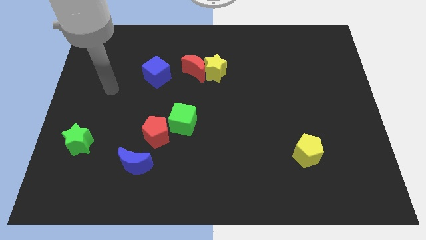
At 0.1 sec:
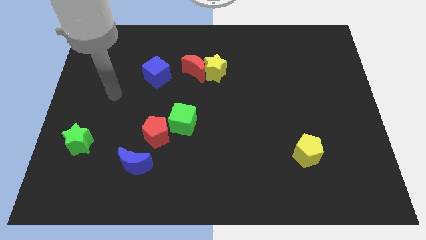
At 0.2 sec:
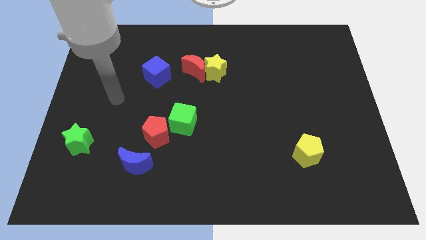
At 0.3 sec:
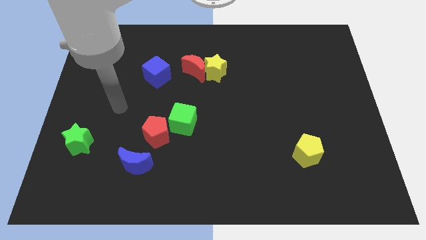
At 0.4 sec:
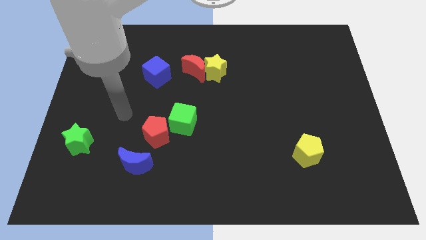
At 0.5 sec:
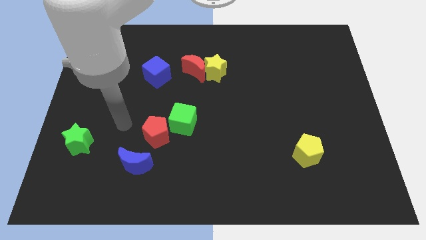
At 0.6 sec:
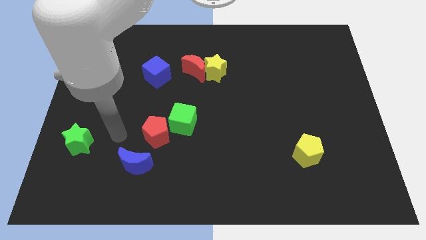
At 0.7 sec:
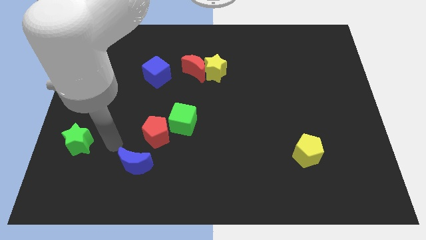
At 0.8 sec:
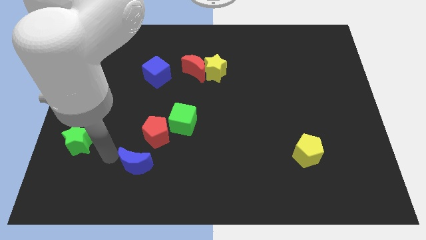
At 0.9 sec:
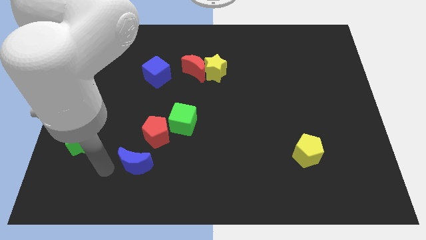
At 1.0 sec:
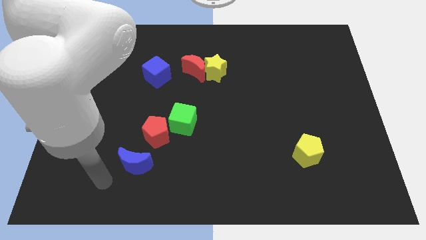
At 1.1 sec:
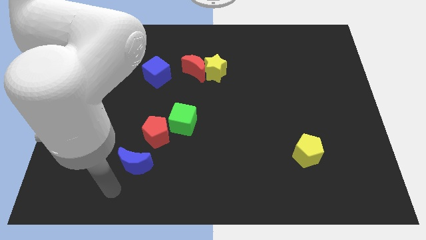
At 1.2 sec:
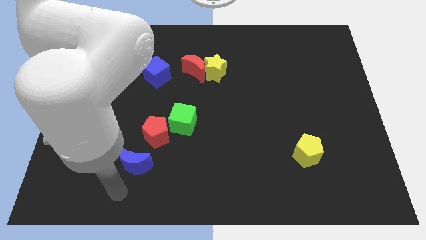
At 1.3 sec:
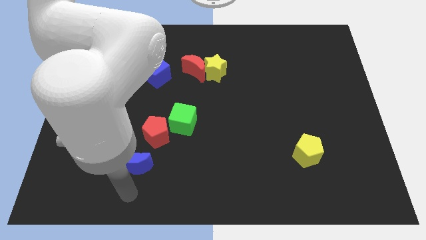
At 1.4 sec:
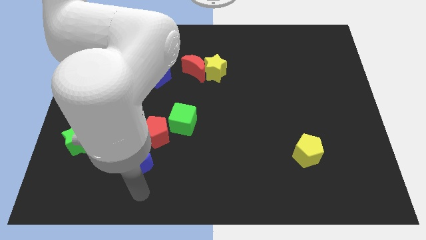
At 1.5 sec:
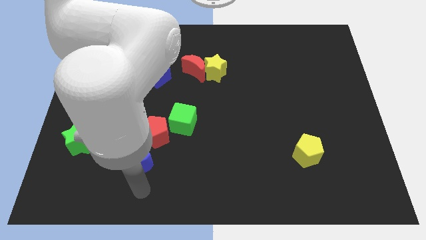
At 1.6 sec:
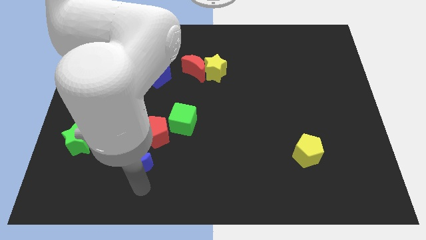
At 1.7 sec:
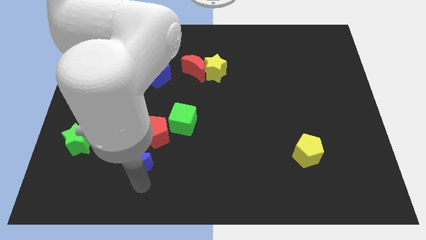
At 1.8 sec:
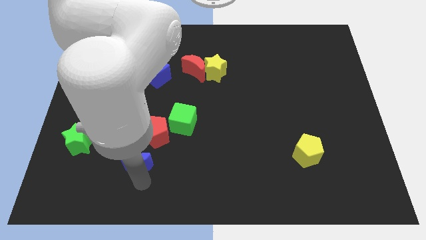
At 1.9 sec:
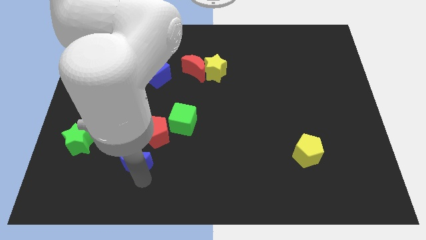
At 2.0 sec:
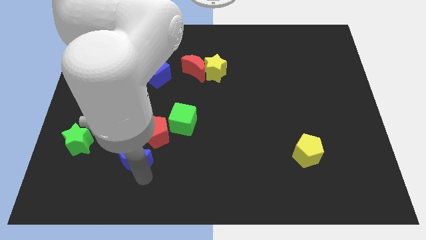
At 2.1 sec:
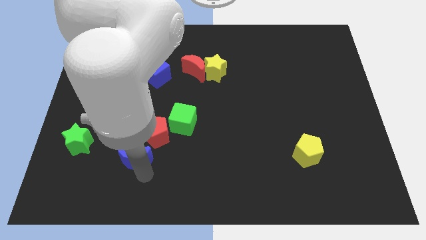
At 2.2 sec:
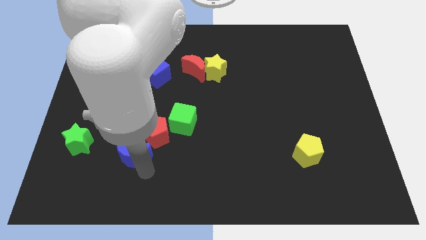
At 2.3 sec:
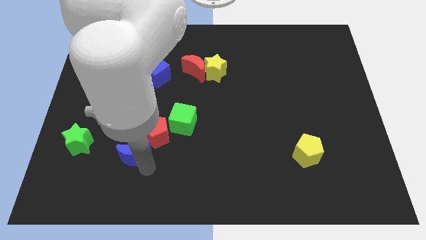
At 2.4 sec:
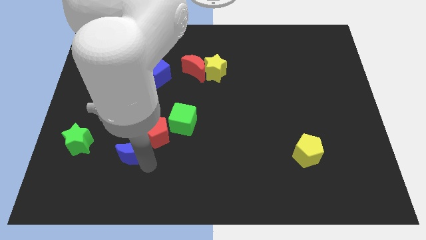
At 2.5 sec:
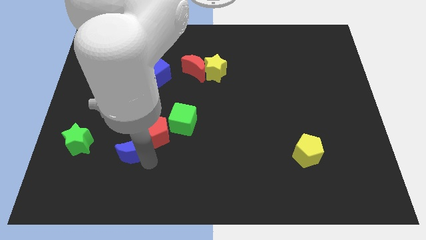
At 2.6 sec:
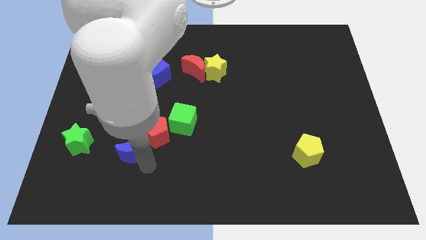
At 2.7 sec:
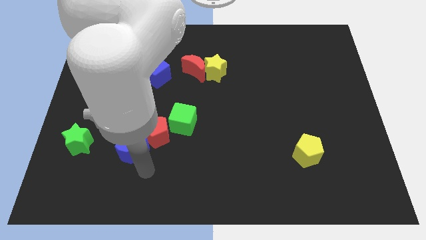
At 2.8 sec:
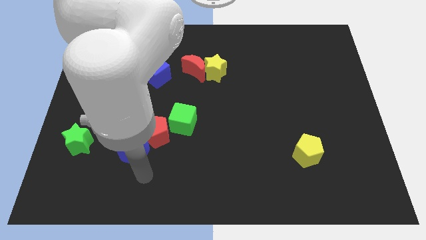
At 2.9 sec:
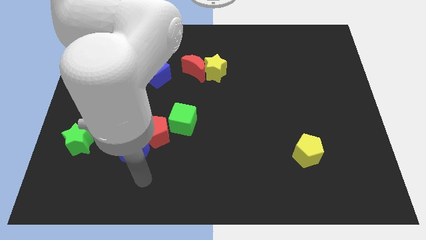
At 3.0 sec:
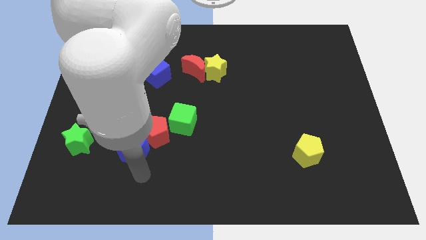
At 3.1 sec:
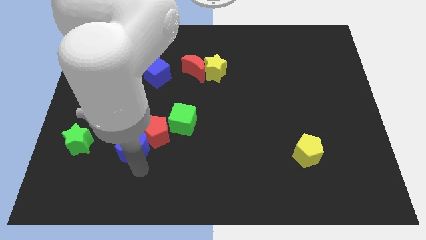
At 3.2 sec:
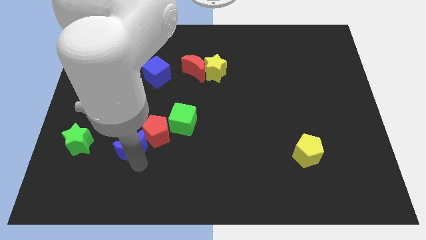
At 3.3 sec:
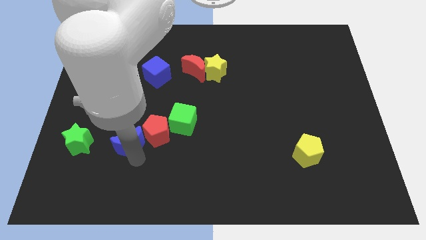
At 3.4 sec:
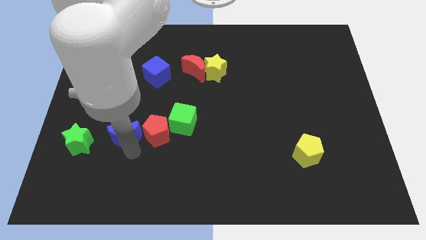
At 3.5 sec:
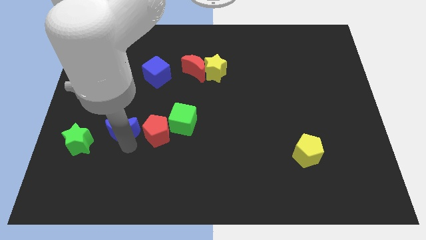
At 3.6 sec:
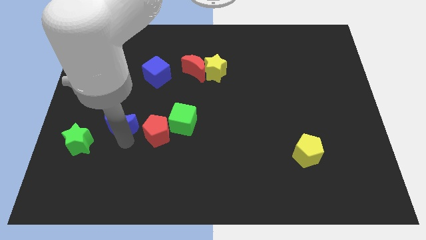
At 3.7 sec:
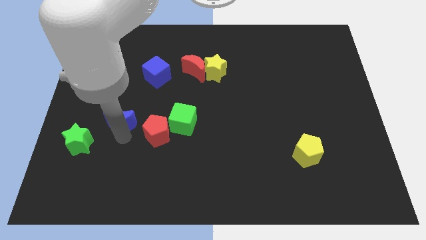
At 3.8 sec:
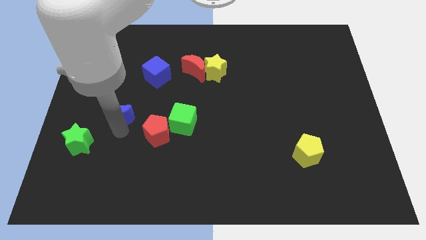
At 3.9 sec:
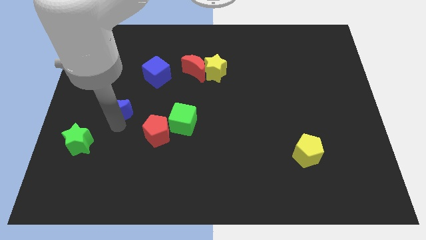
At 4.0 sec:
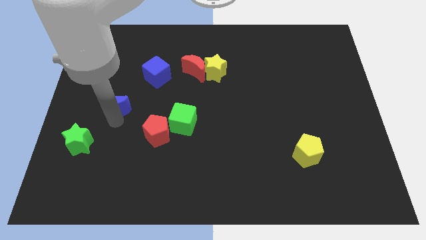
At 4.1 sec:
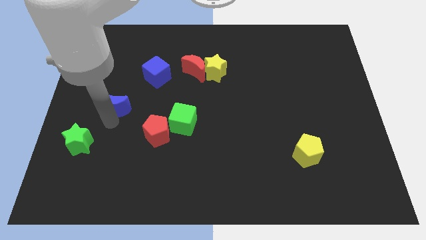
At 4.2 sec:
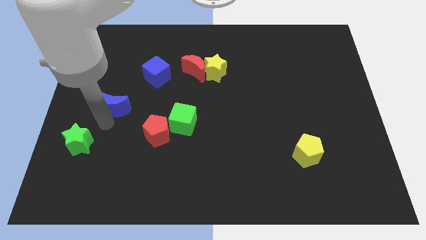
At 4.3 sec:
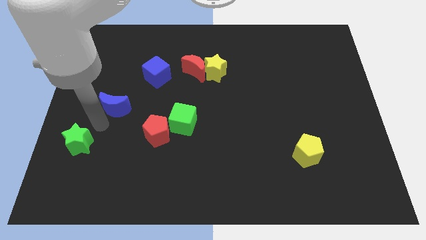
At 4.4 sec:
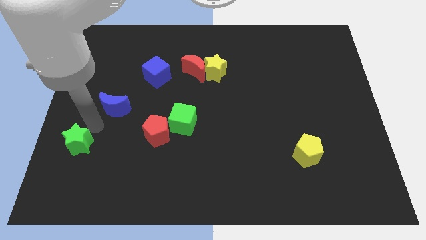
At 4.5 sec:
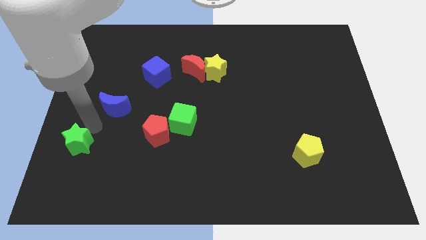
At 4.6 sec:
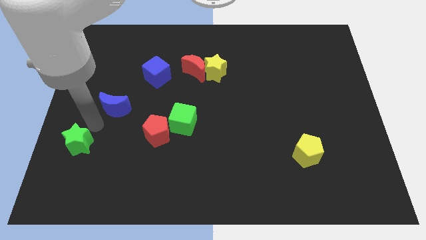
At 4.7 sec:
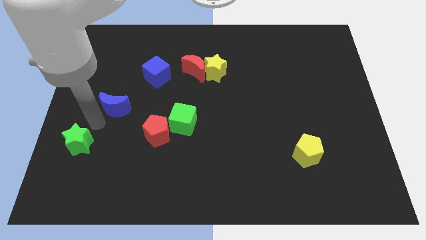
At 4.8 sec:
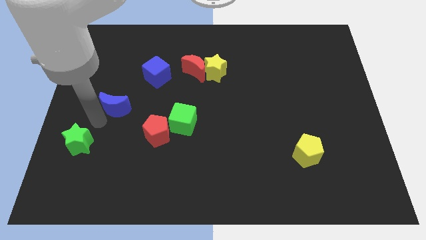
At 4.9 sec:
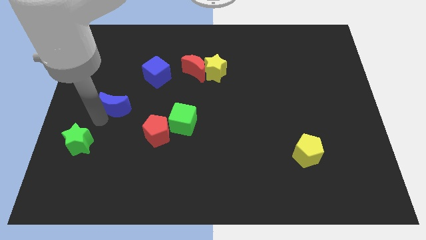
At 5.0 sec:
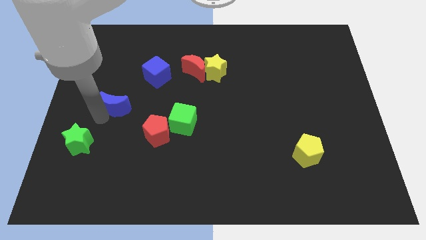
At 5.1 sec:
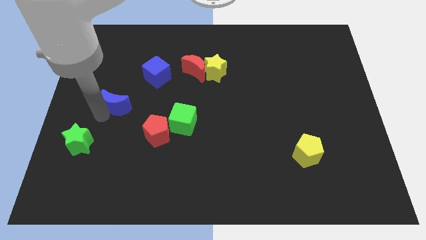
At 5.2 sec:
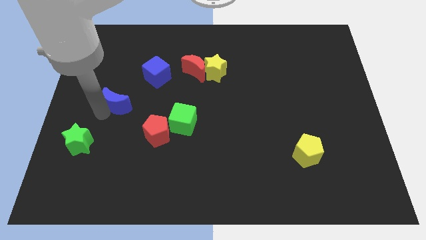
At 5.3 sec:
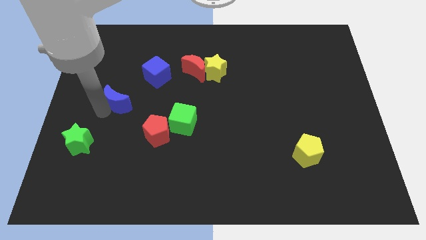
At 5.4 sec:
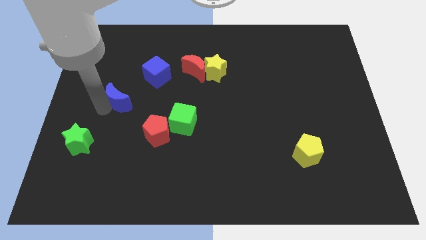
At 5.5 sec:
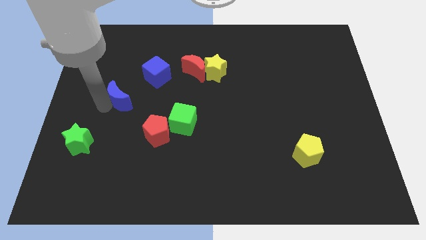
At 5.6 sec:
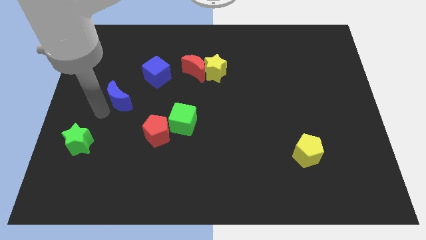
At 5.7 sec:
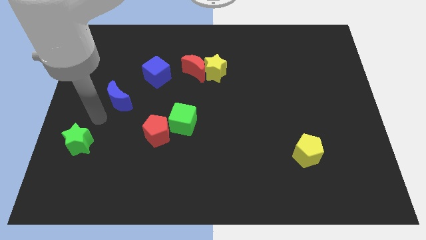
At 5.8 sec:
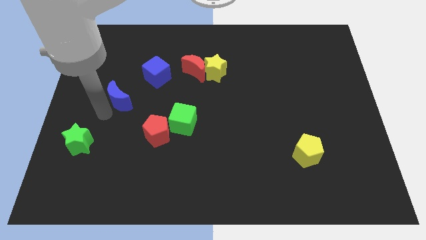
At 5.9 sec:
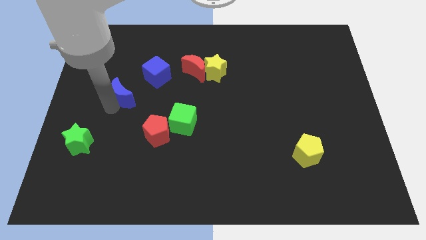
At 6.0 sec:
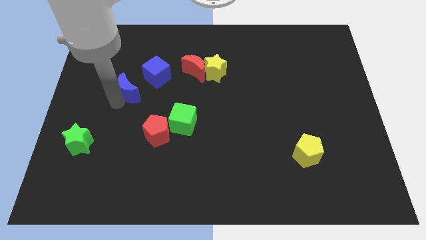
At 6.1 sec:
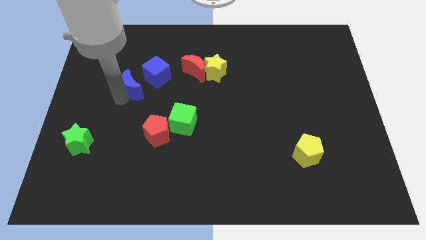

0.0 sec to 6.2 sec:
push the blue moon upwards

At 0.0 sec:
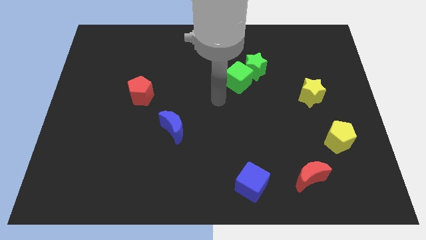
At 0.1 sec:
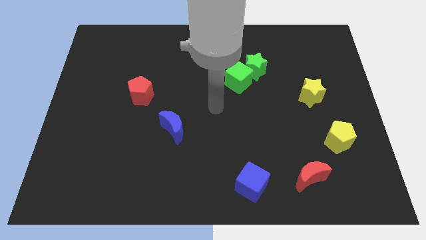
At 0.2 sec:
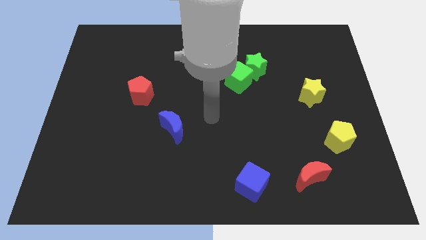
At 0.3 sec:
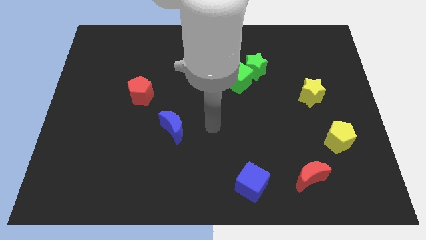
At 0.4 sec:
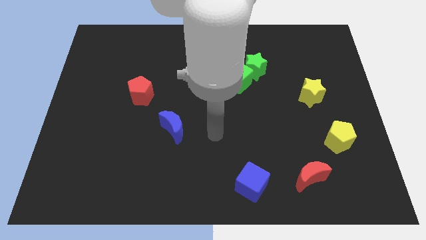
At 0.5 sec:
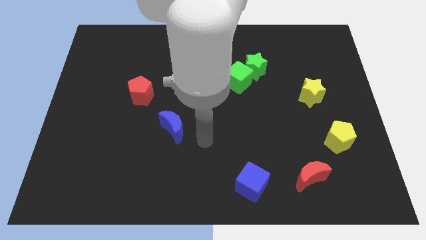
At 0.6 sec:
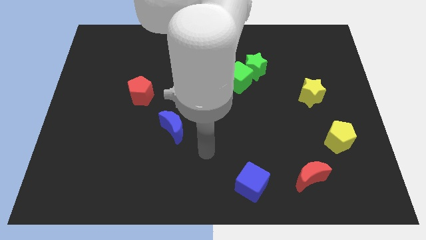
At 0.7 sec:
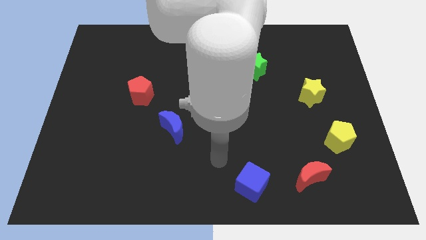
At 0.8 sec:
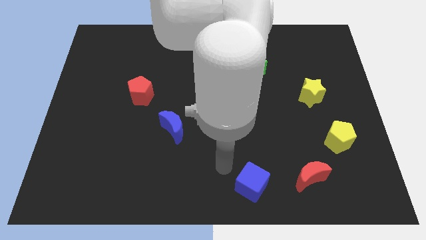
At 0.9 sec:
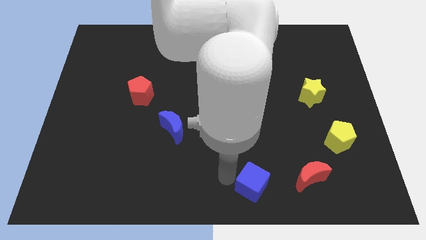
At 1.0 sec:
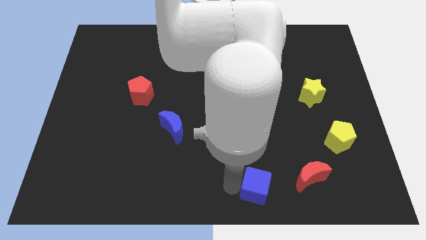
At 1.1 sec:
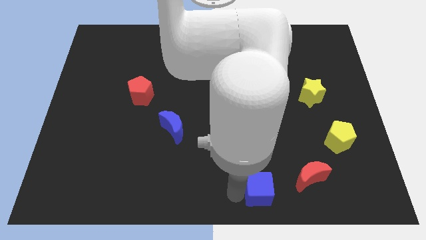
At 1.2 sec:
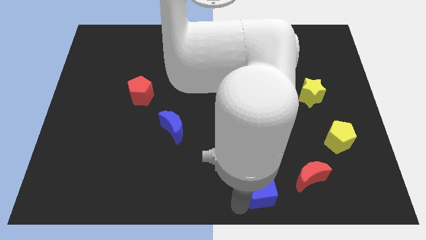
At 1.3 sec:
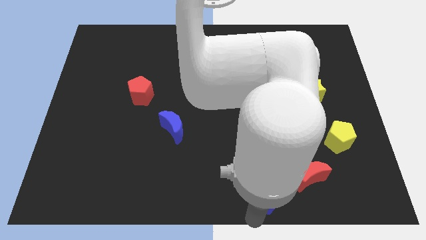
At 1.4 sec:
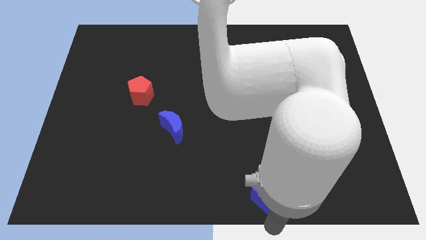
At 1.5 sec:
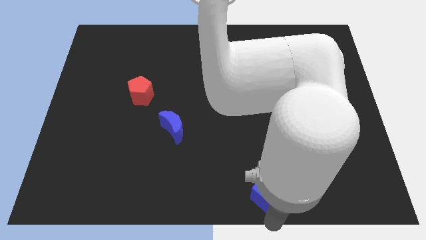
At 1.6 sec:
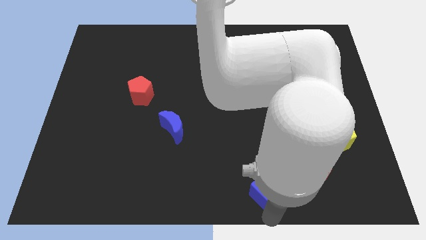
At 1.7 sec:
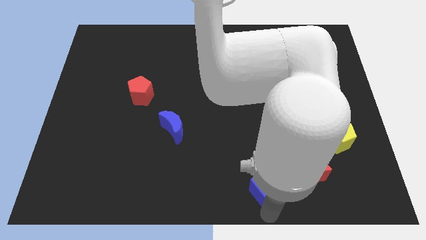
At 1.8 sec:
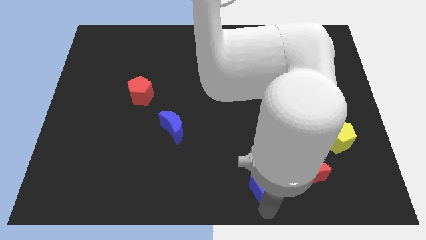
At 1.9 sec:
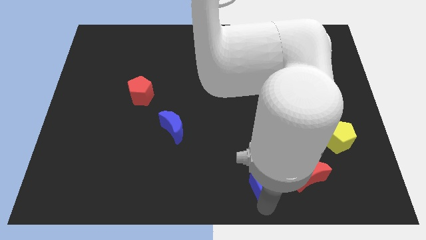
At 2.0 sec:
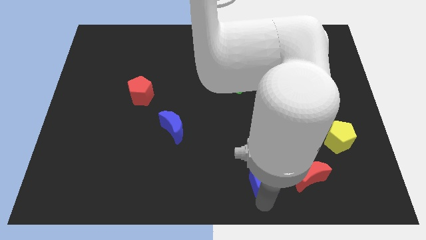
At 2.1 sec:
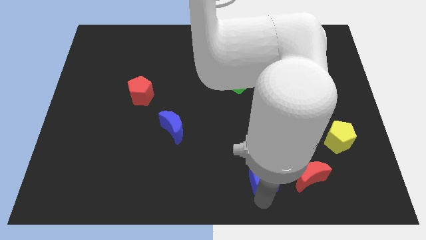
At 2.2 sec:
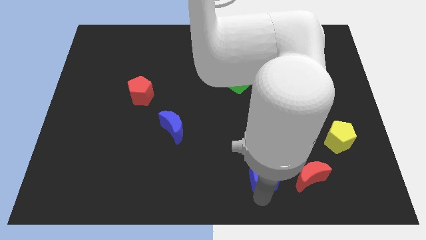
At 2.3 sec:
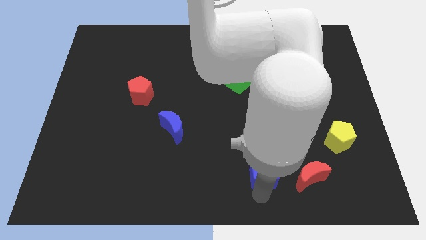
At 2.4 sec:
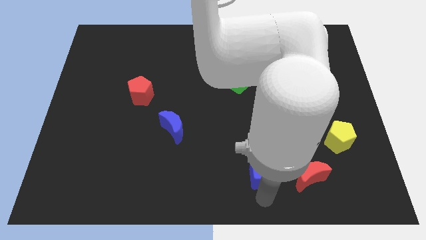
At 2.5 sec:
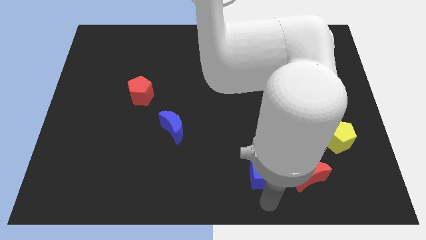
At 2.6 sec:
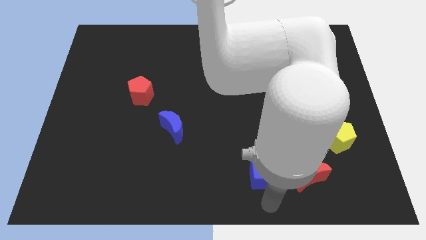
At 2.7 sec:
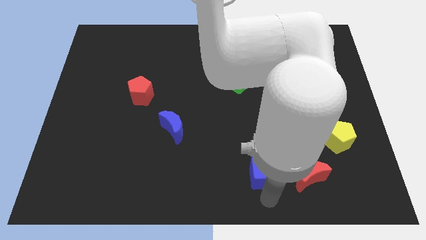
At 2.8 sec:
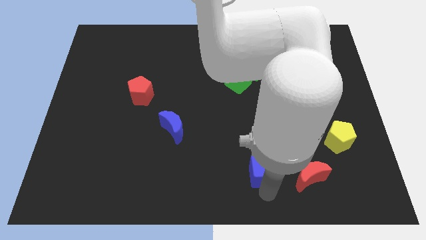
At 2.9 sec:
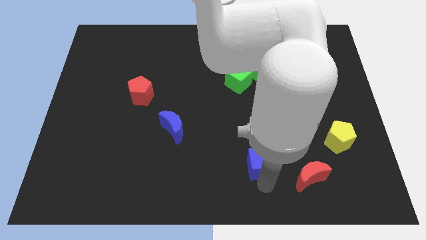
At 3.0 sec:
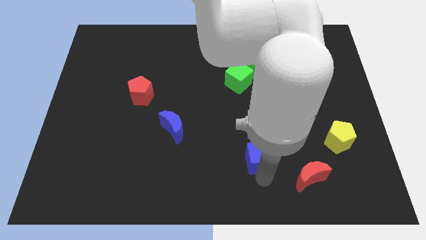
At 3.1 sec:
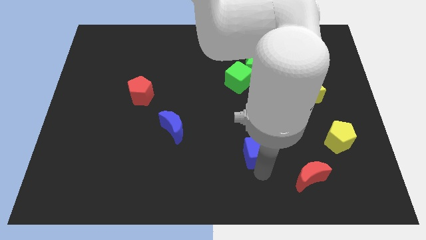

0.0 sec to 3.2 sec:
move the blue cube a little bit up
